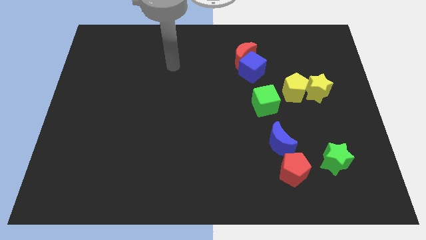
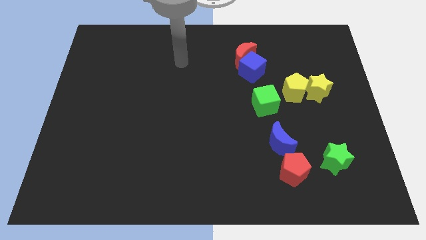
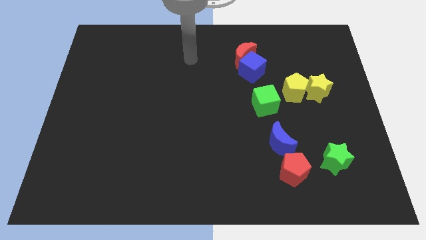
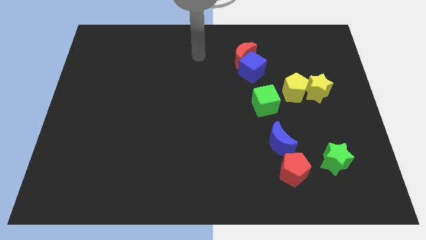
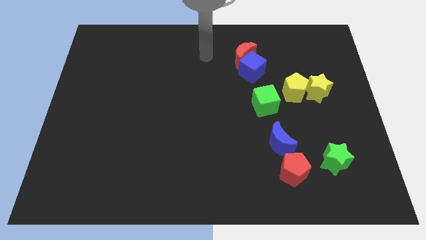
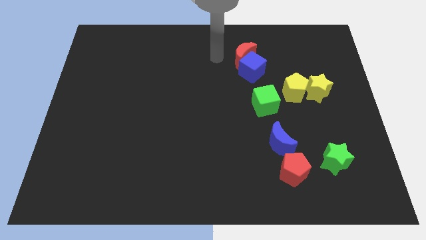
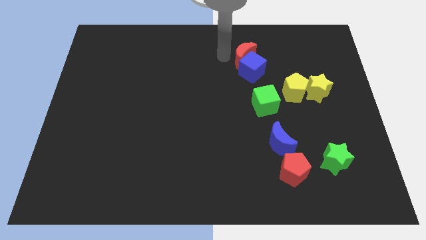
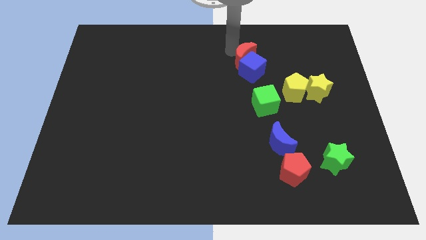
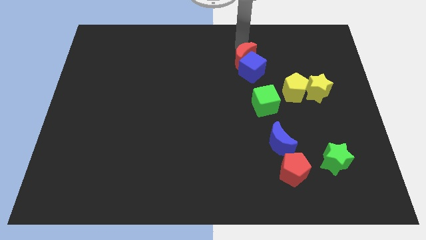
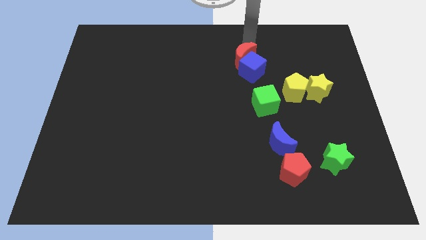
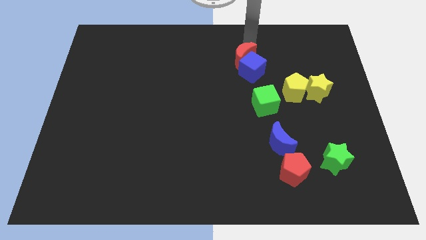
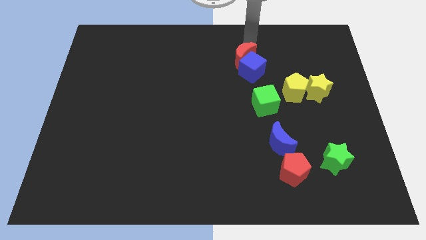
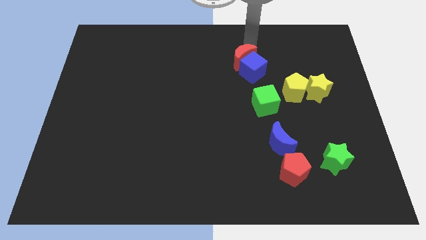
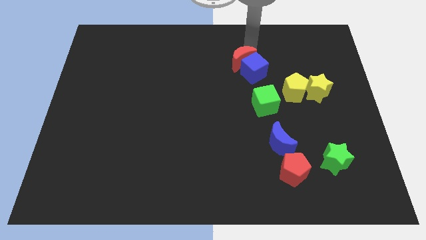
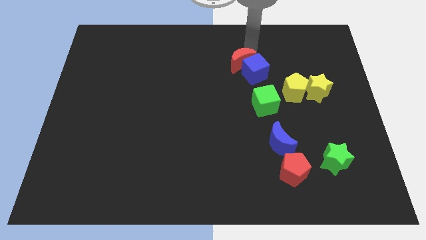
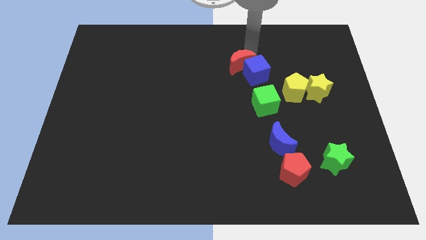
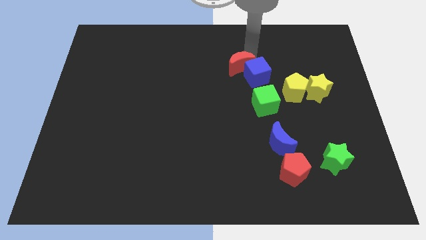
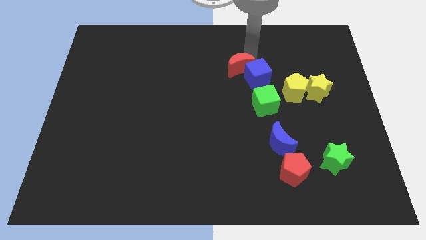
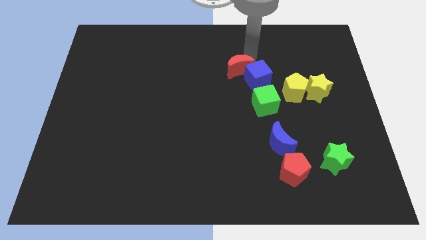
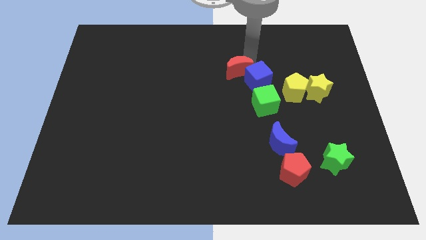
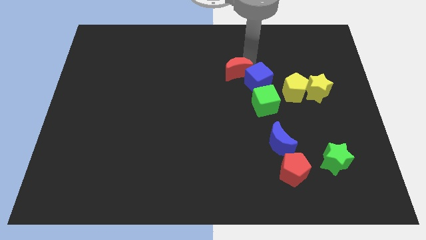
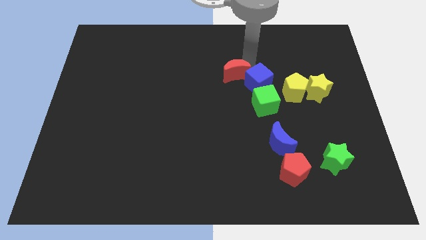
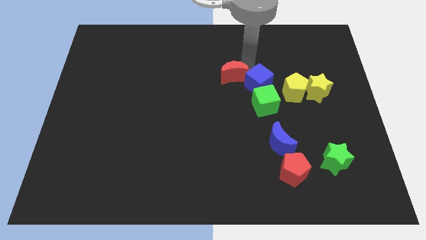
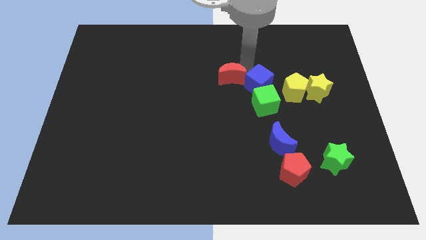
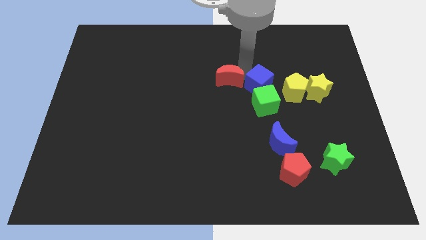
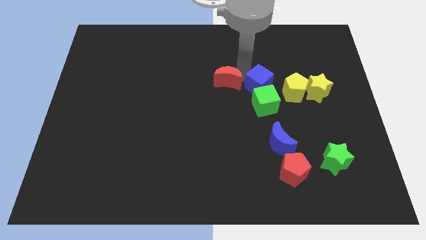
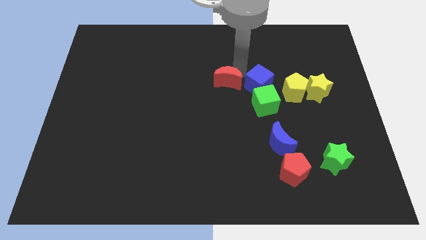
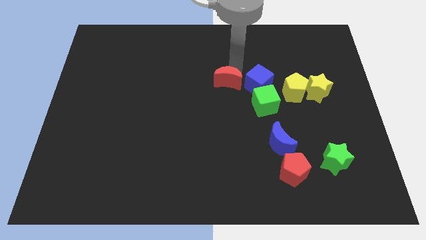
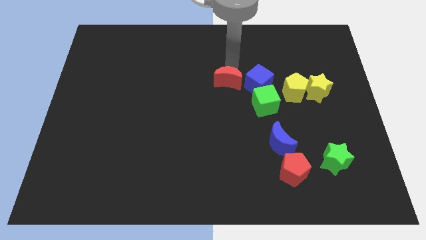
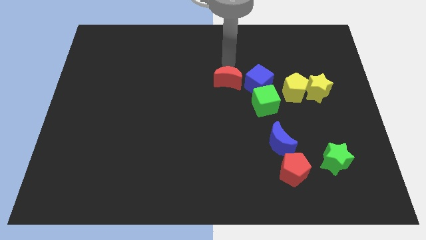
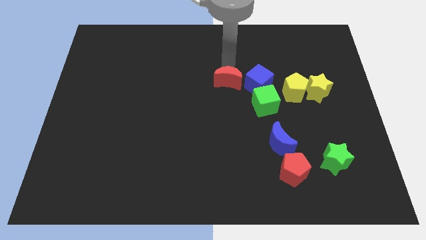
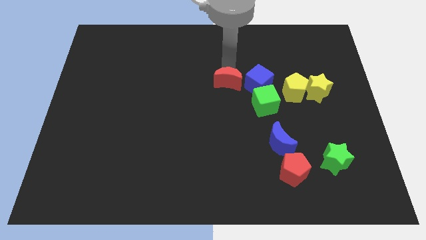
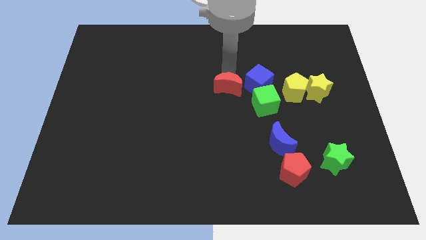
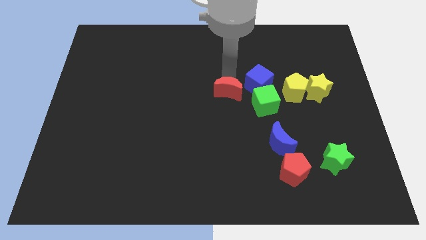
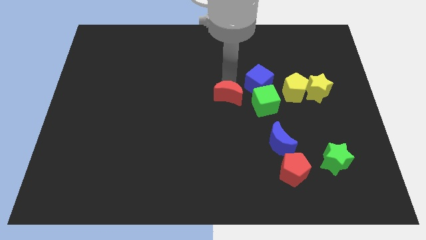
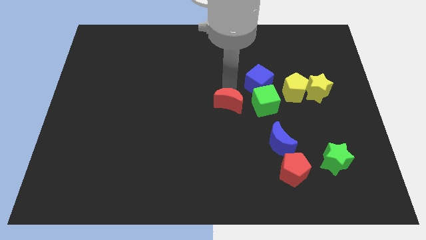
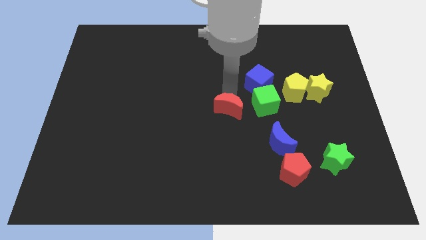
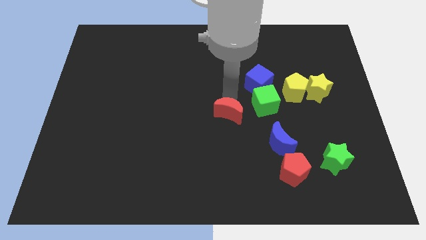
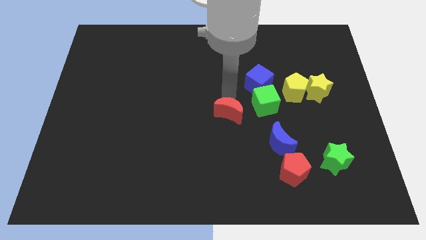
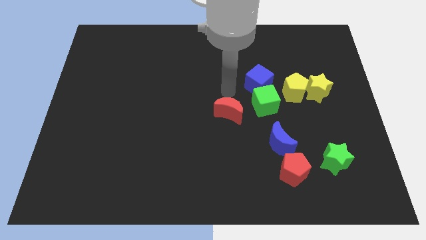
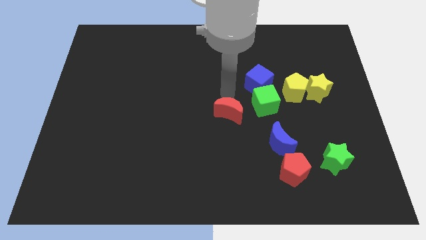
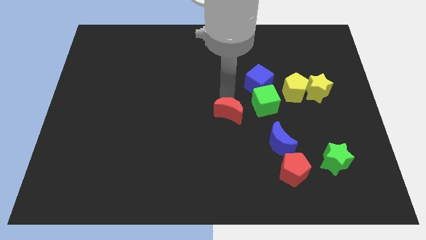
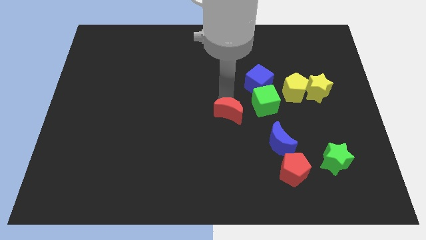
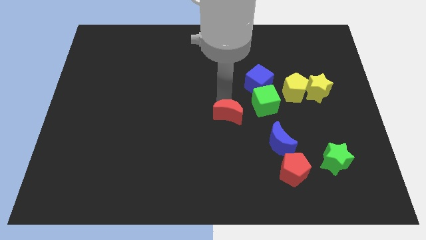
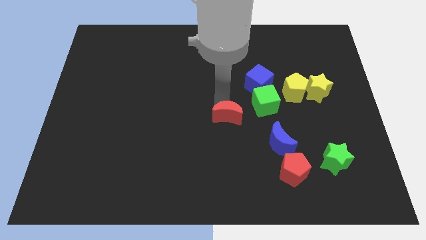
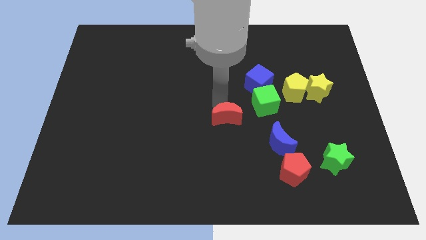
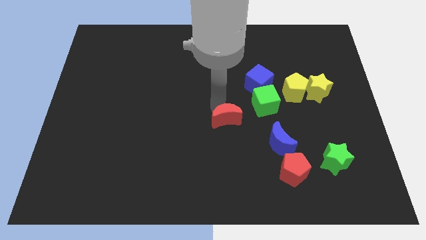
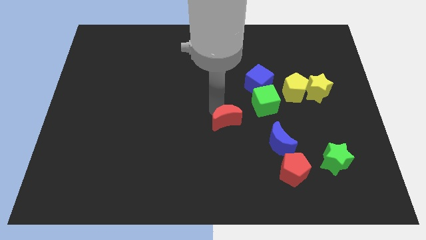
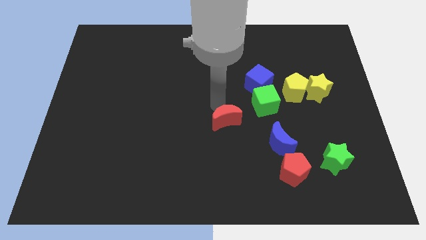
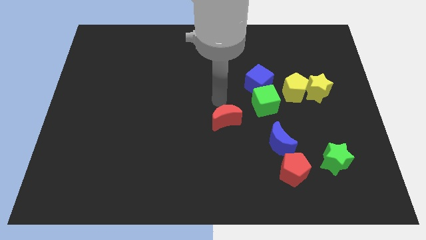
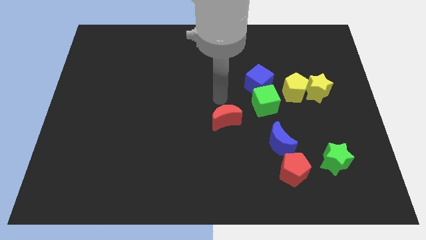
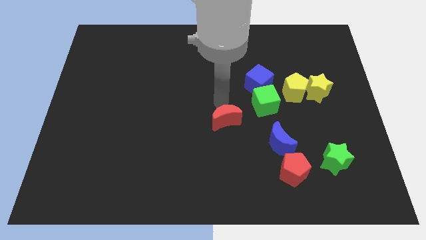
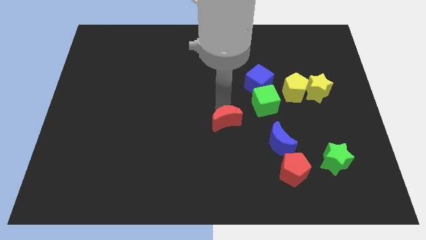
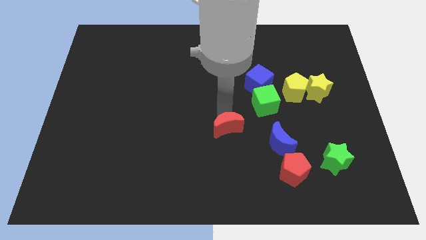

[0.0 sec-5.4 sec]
push the red moon to the left of the blue moon

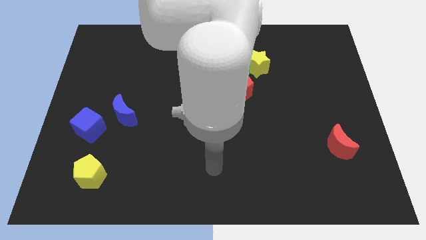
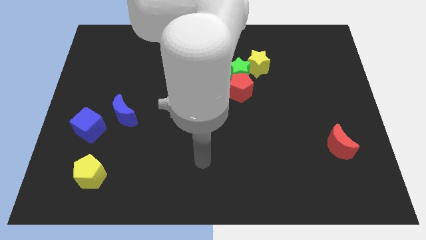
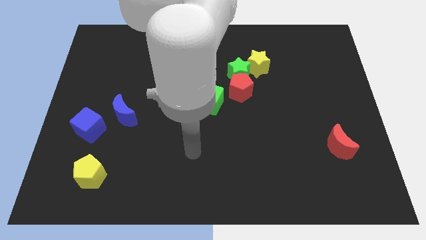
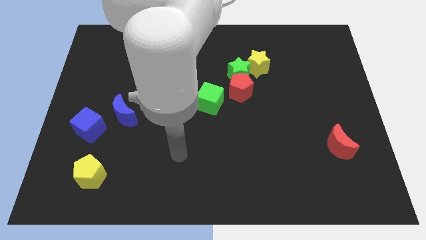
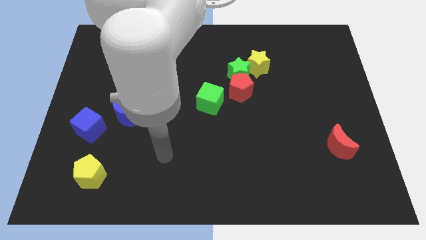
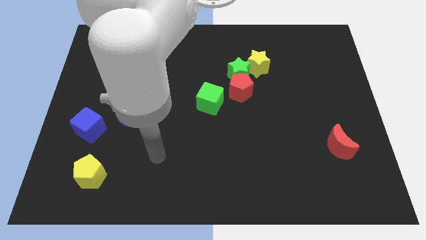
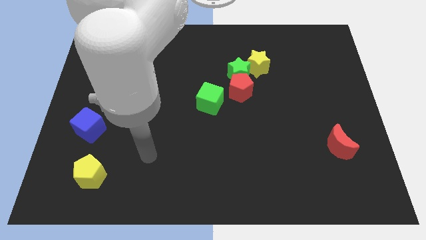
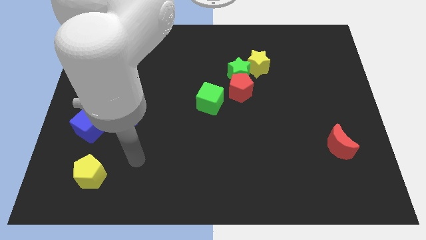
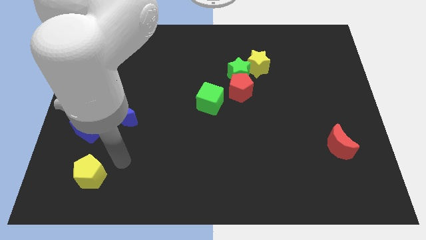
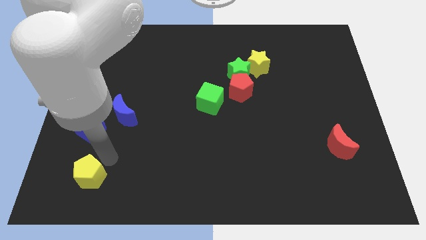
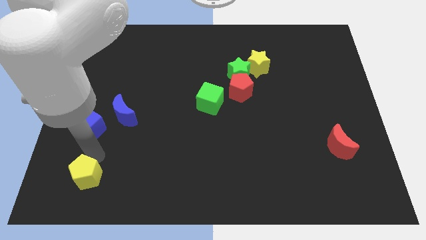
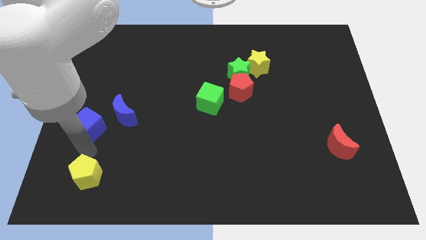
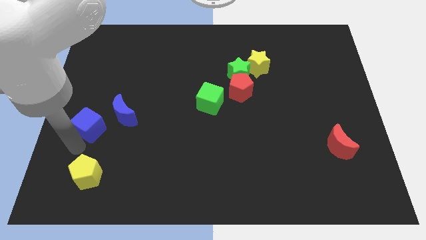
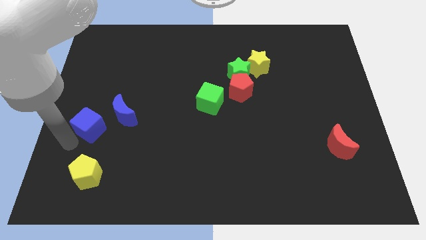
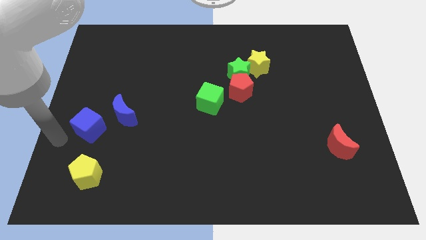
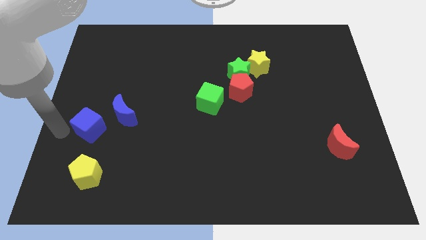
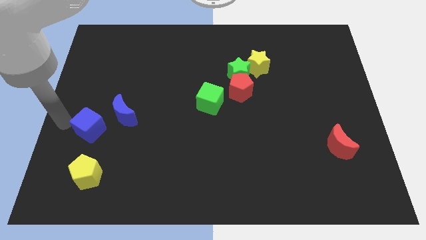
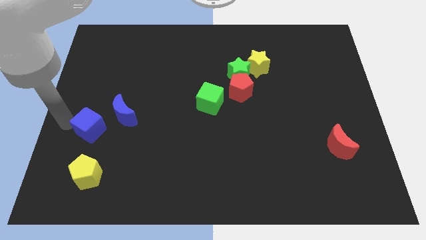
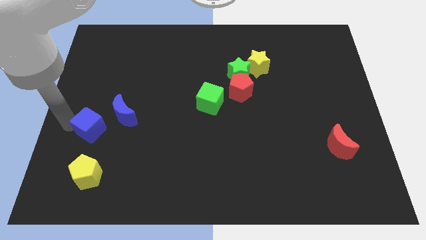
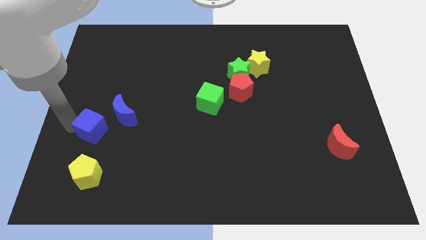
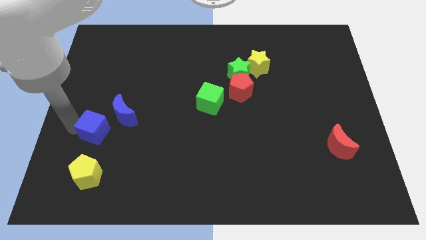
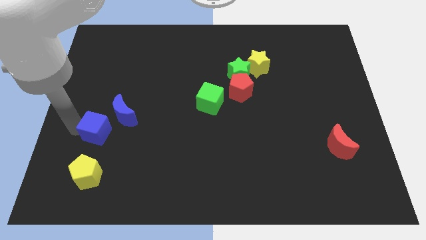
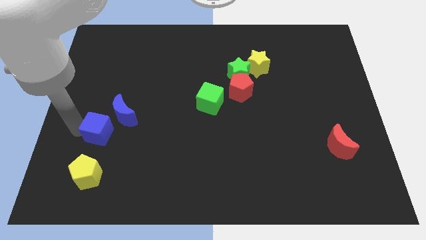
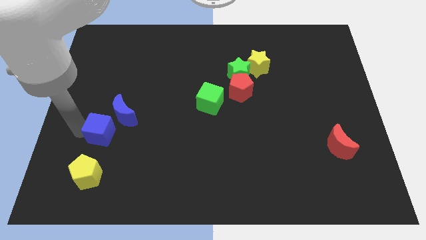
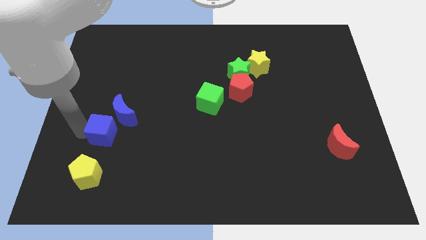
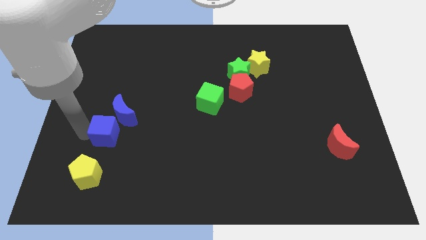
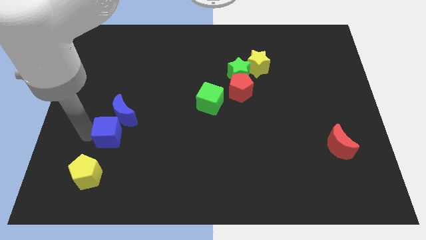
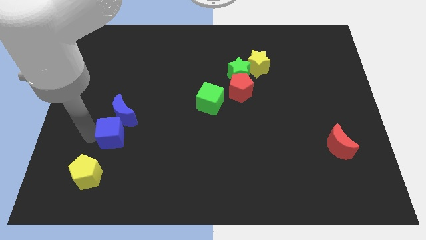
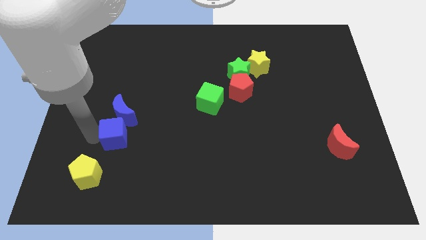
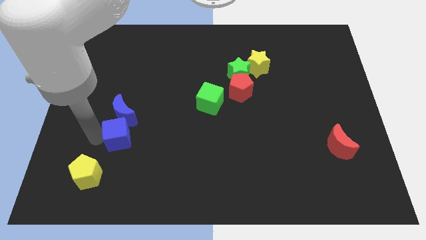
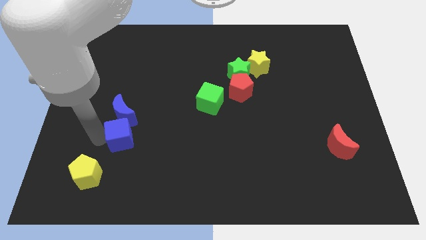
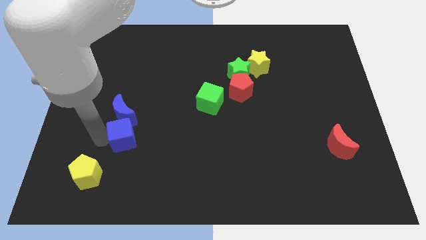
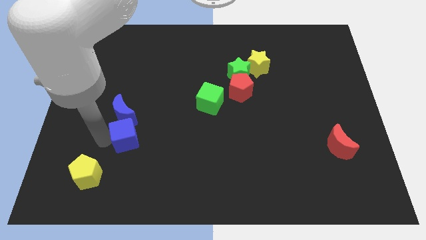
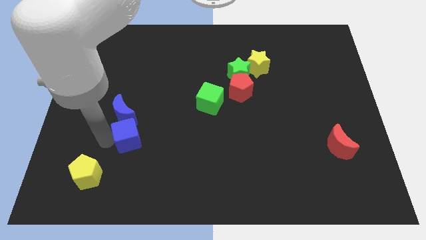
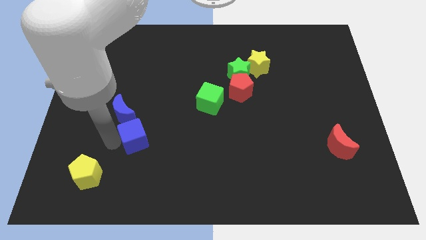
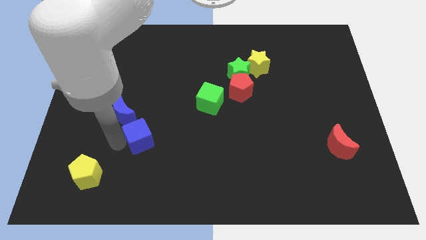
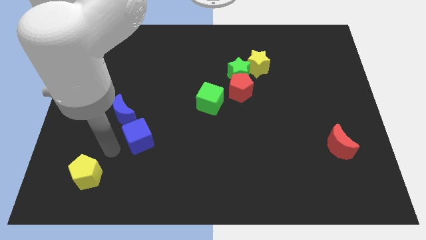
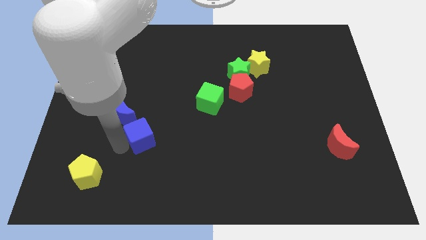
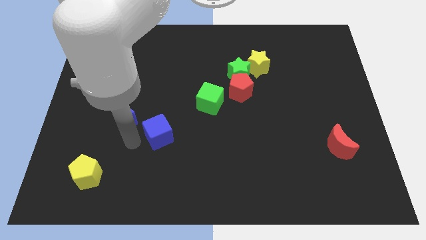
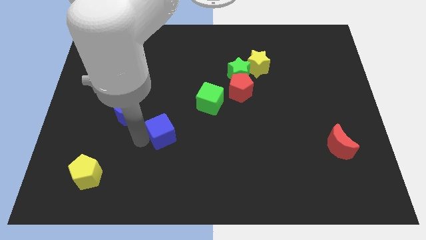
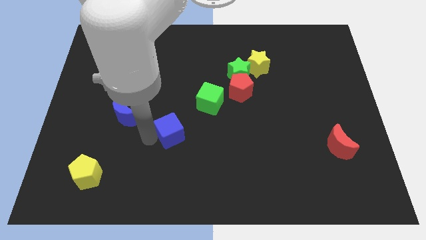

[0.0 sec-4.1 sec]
put the blue cube diagonally down and to the left of the green cube
